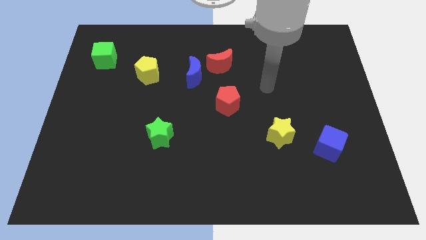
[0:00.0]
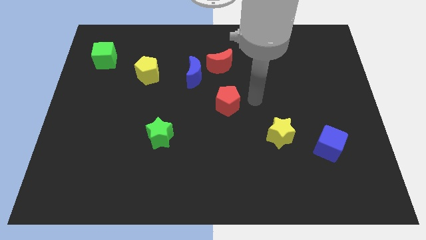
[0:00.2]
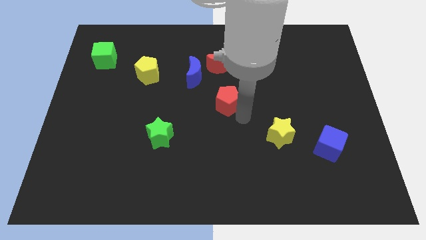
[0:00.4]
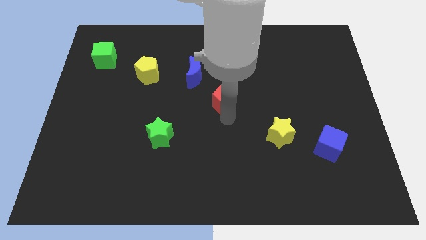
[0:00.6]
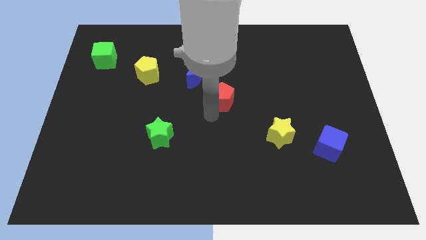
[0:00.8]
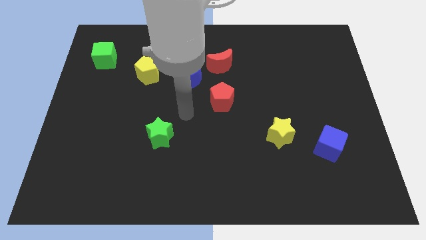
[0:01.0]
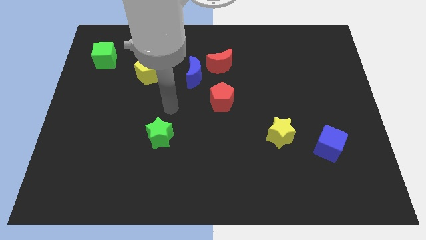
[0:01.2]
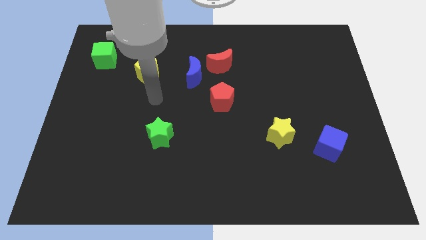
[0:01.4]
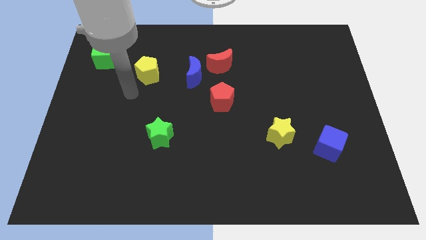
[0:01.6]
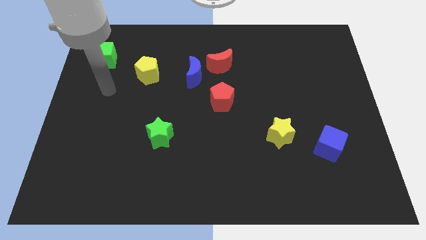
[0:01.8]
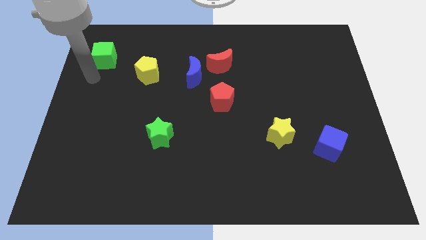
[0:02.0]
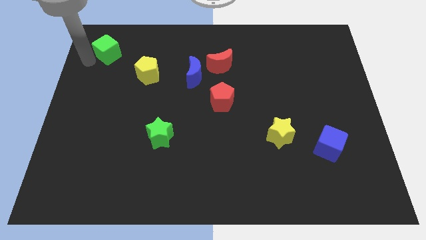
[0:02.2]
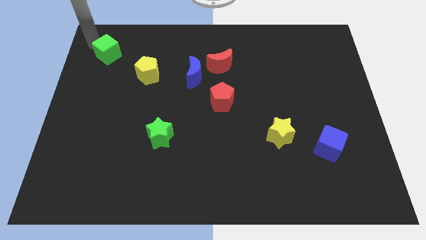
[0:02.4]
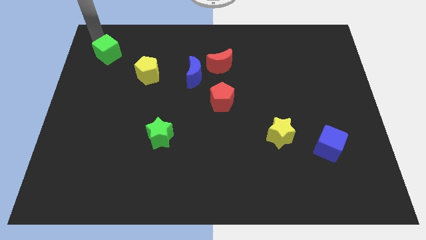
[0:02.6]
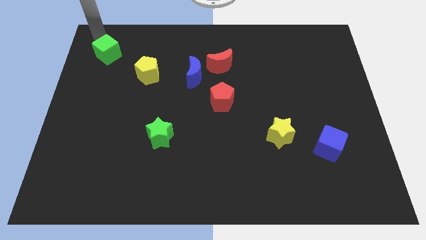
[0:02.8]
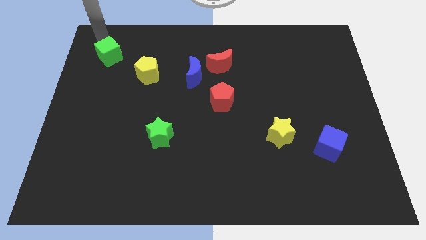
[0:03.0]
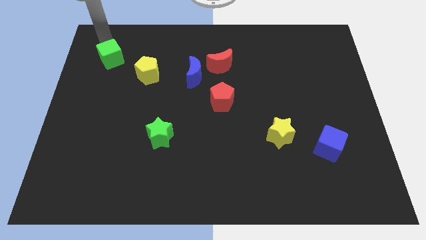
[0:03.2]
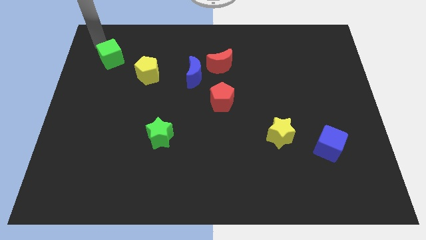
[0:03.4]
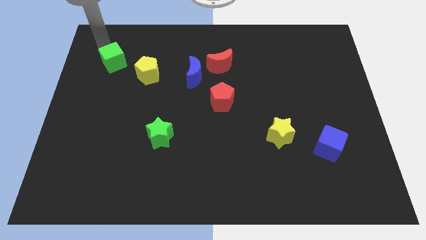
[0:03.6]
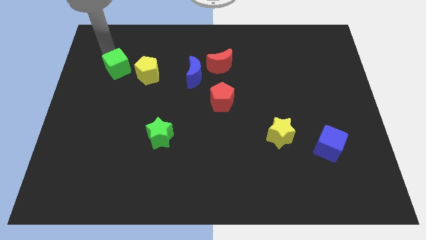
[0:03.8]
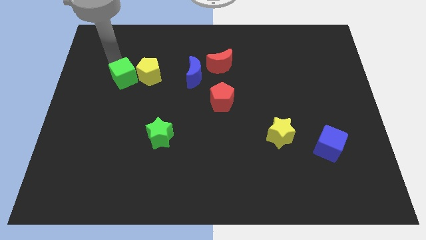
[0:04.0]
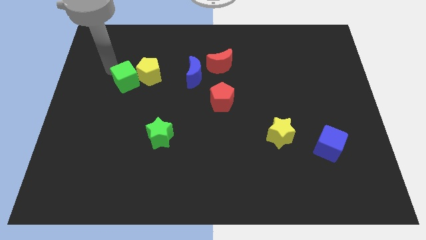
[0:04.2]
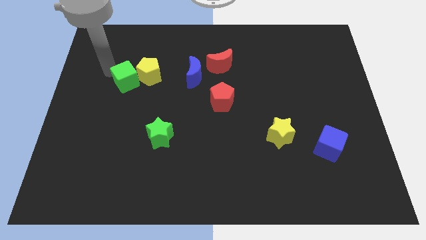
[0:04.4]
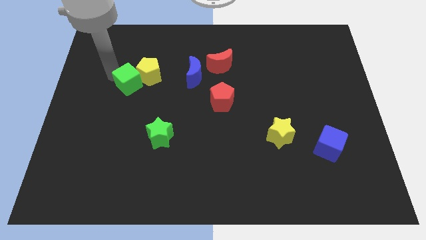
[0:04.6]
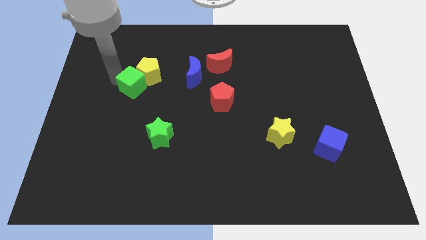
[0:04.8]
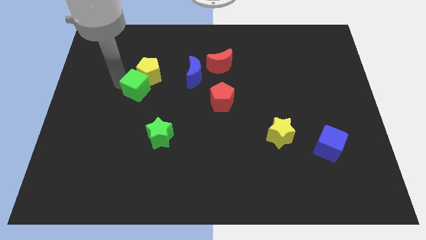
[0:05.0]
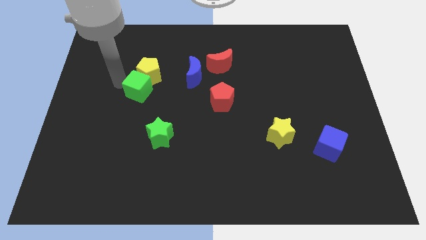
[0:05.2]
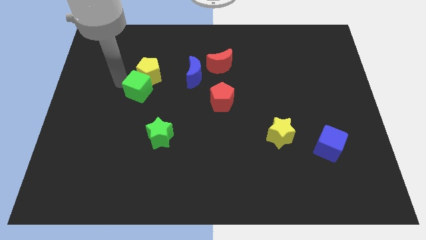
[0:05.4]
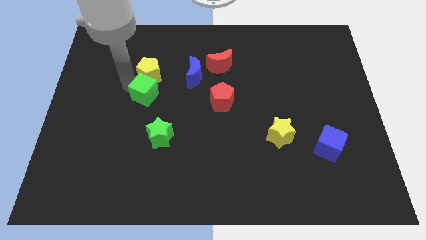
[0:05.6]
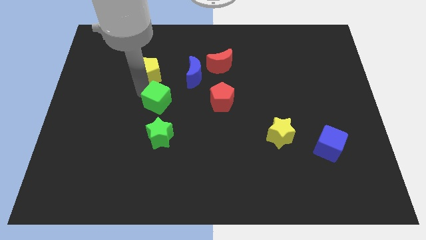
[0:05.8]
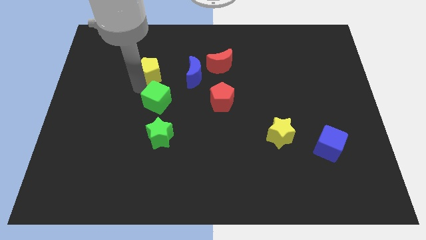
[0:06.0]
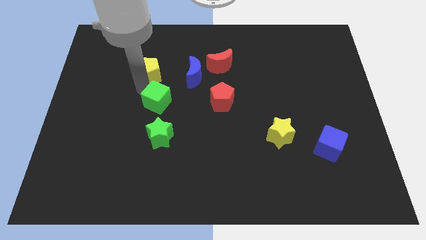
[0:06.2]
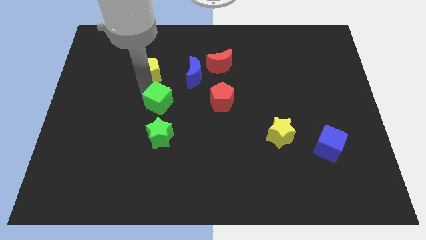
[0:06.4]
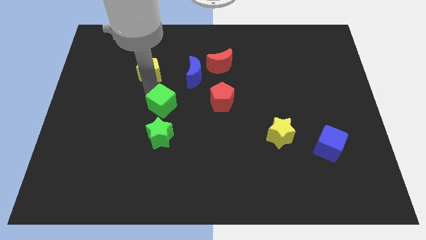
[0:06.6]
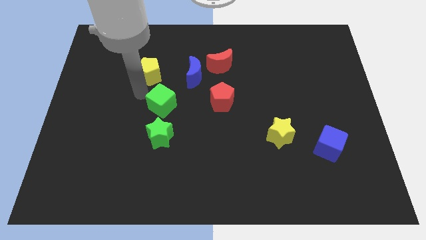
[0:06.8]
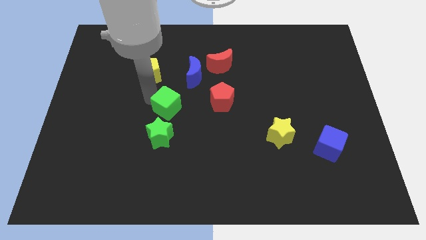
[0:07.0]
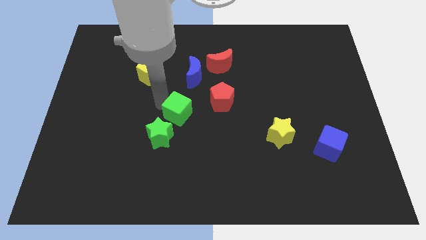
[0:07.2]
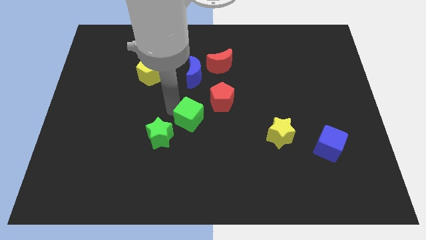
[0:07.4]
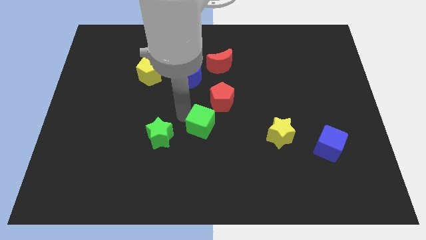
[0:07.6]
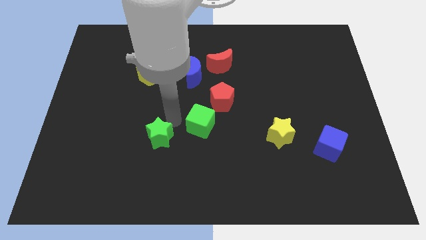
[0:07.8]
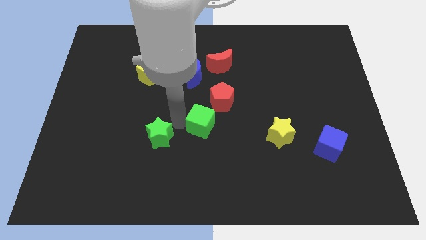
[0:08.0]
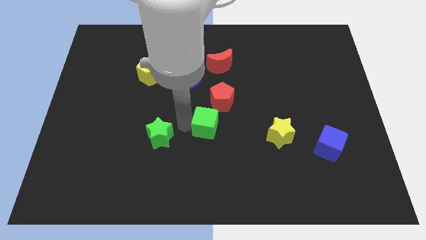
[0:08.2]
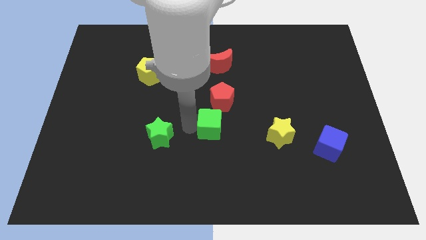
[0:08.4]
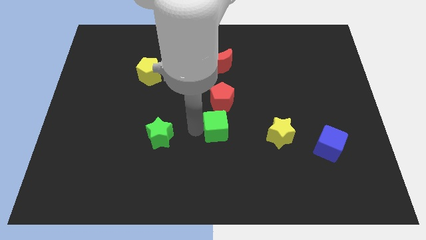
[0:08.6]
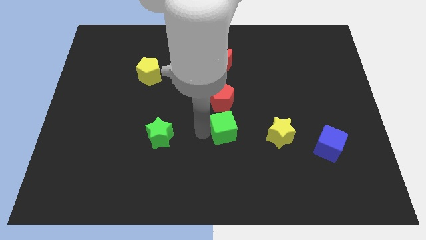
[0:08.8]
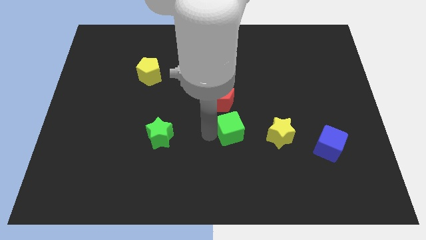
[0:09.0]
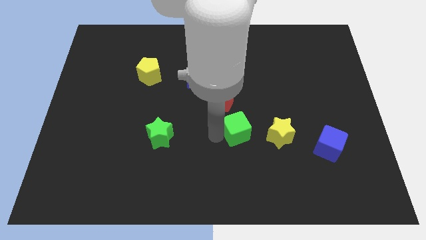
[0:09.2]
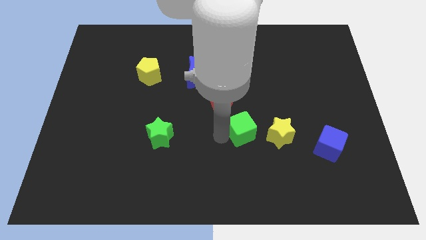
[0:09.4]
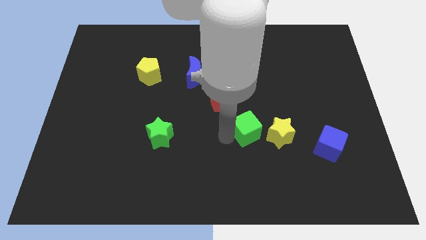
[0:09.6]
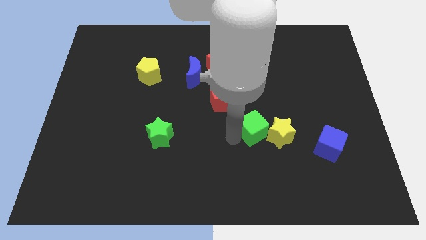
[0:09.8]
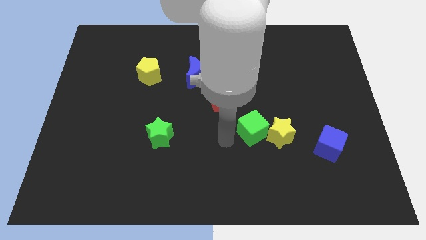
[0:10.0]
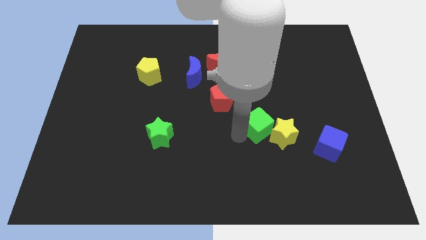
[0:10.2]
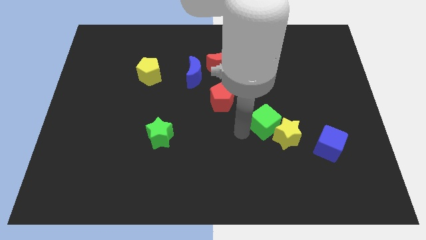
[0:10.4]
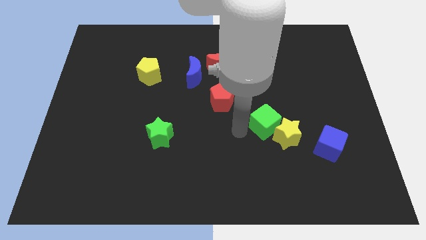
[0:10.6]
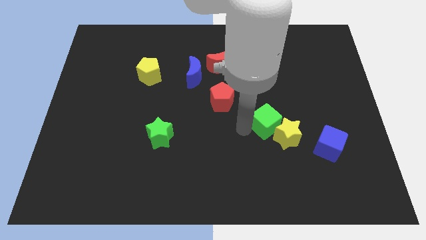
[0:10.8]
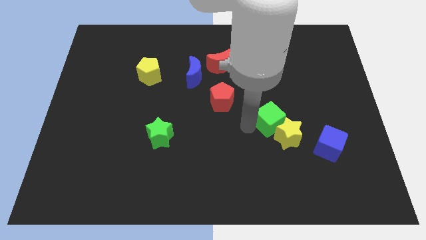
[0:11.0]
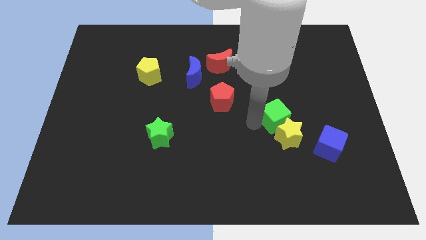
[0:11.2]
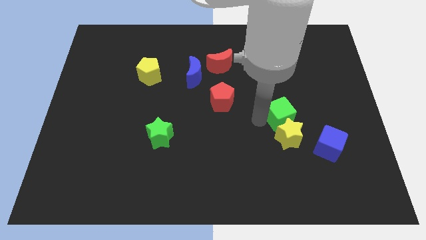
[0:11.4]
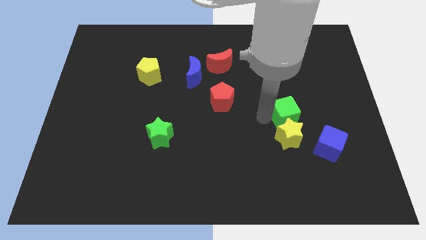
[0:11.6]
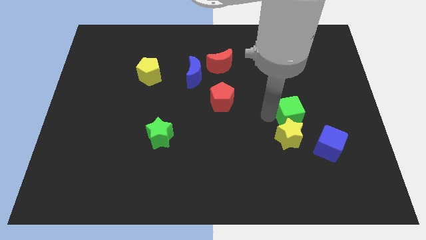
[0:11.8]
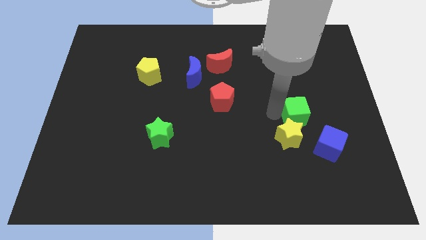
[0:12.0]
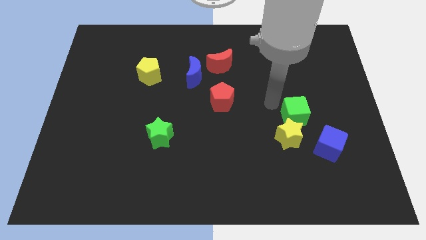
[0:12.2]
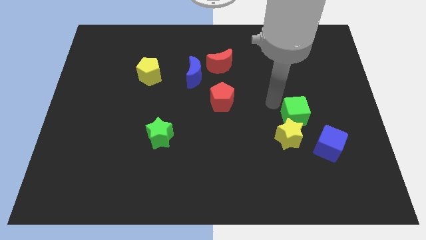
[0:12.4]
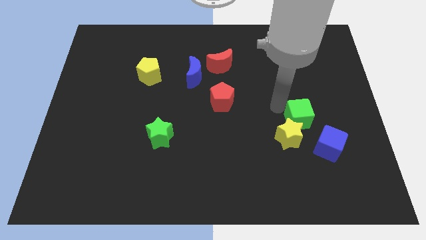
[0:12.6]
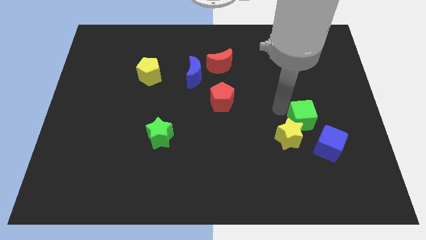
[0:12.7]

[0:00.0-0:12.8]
slide the green cube just right of the yellow star

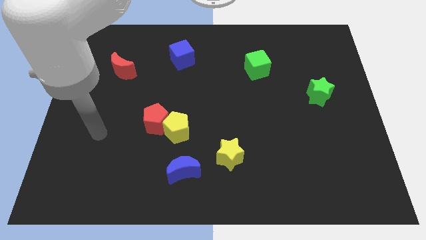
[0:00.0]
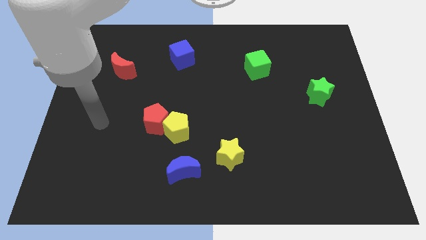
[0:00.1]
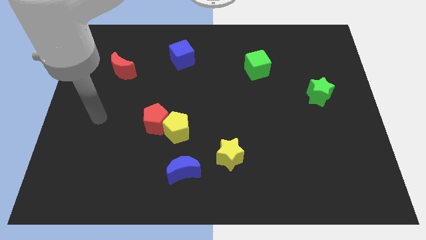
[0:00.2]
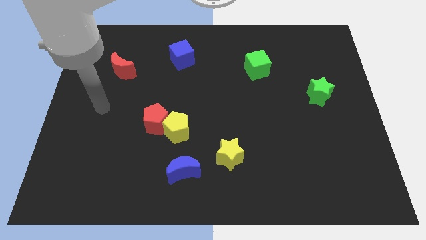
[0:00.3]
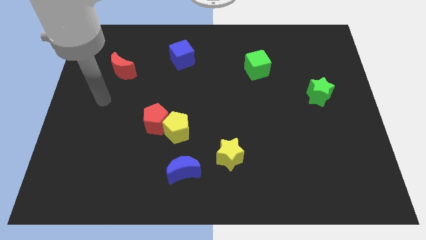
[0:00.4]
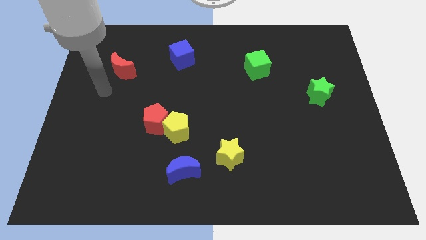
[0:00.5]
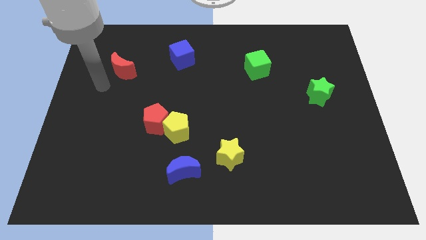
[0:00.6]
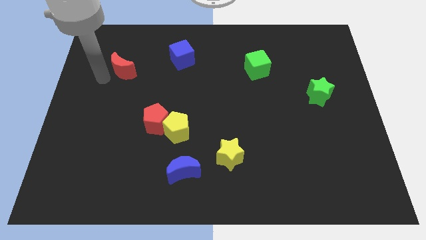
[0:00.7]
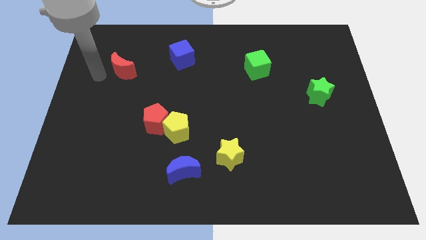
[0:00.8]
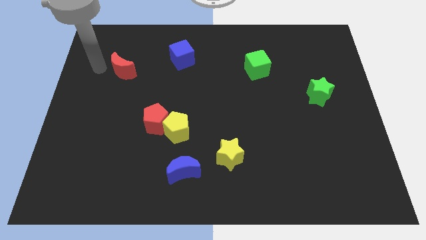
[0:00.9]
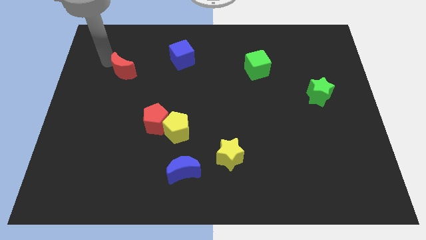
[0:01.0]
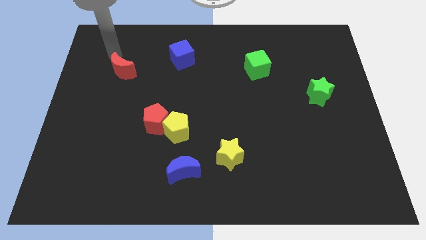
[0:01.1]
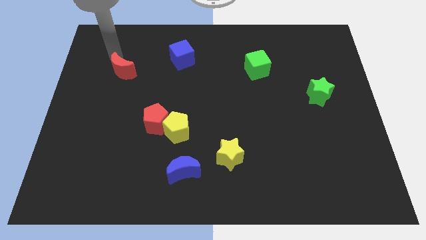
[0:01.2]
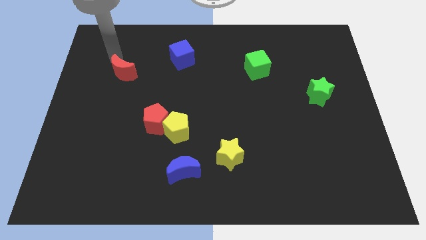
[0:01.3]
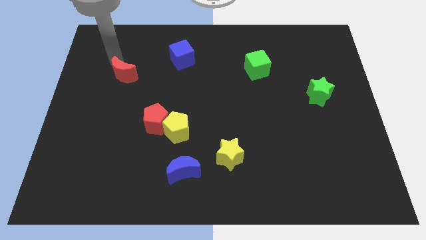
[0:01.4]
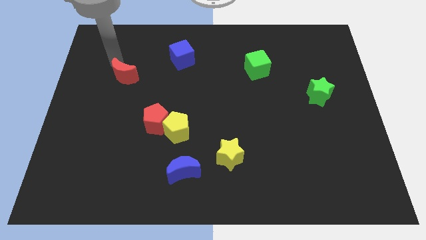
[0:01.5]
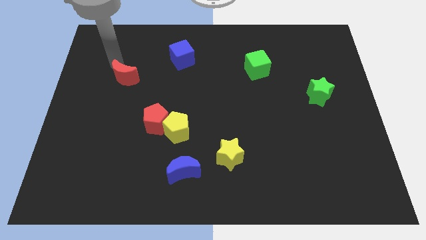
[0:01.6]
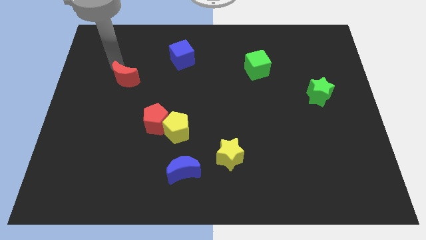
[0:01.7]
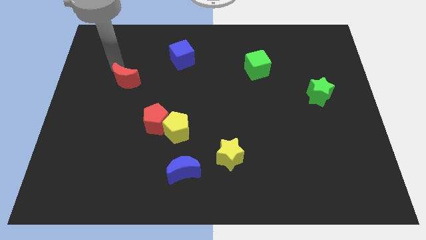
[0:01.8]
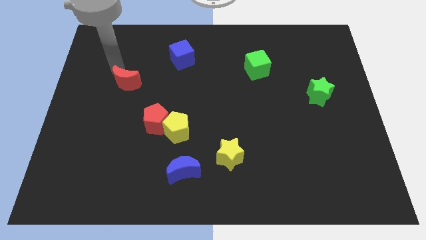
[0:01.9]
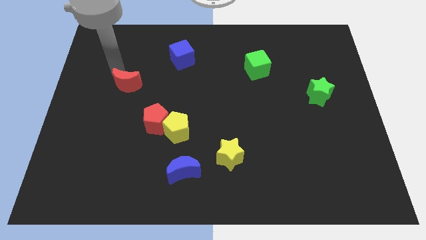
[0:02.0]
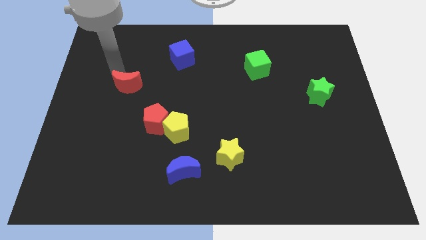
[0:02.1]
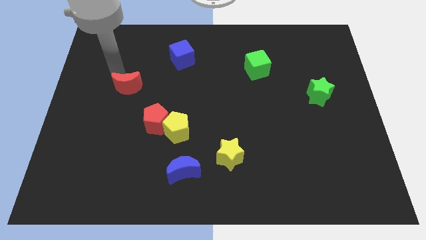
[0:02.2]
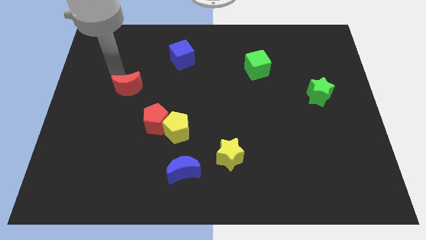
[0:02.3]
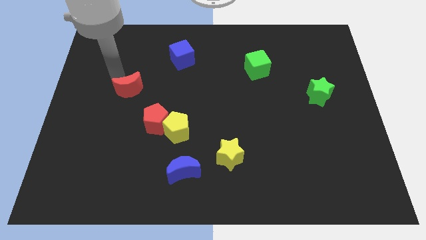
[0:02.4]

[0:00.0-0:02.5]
put the red moon to the top left side of the red pentagon
